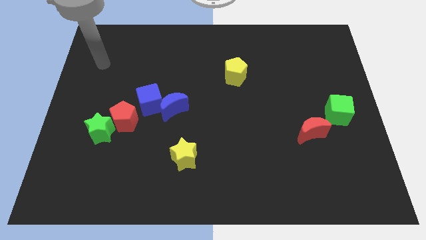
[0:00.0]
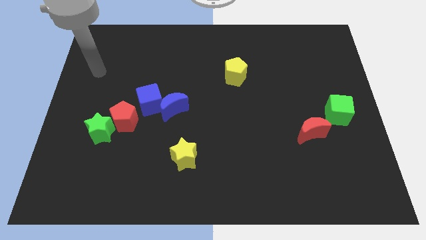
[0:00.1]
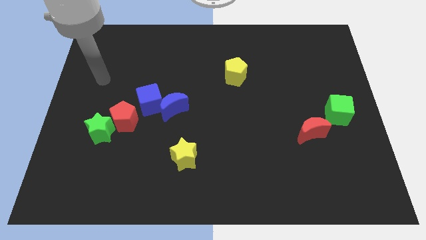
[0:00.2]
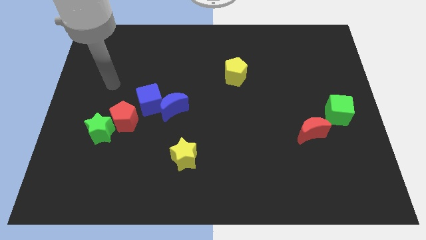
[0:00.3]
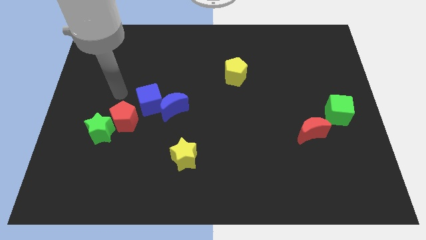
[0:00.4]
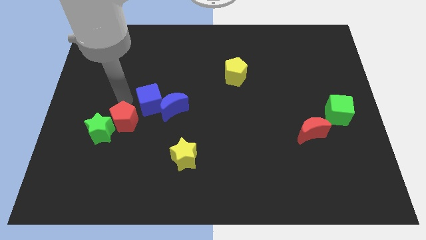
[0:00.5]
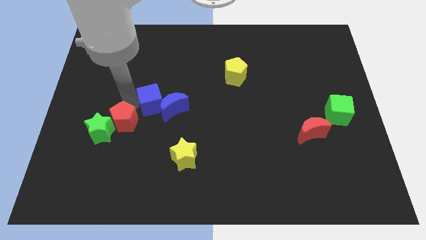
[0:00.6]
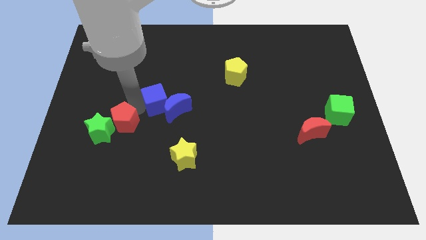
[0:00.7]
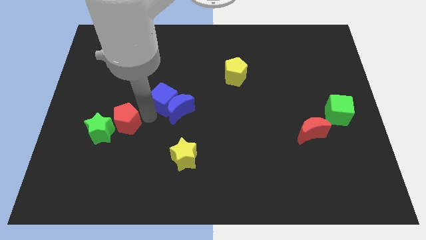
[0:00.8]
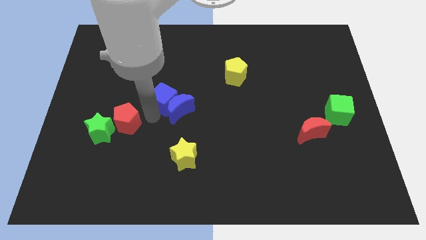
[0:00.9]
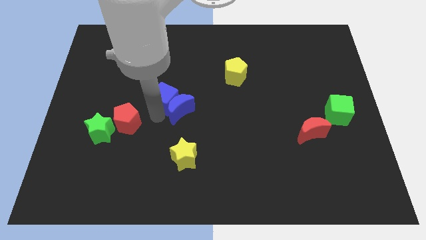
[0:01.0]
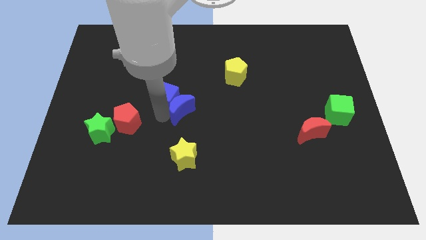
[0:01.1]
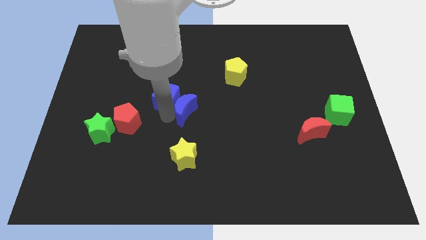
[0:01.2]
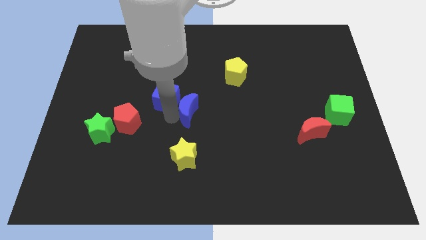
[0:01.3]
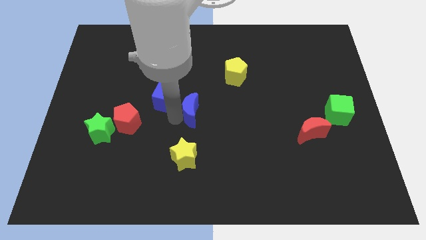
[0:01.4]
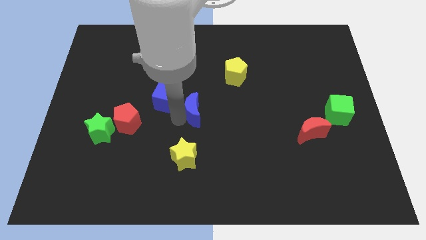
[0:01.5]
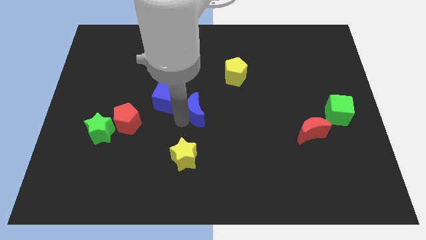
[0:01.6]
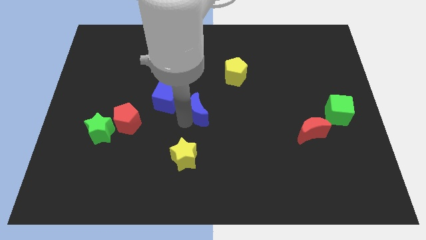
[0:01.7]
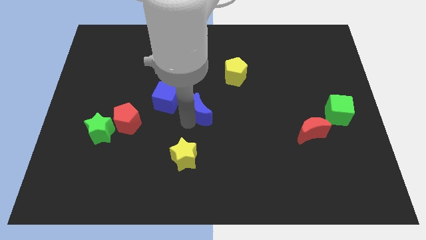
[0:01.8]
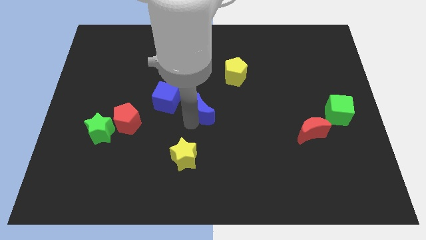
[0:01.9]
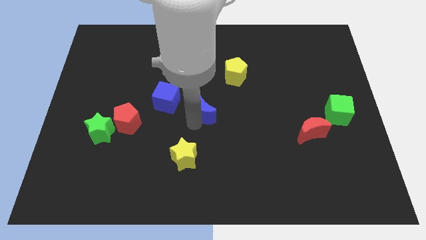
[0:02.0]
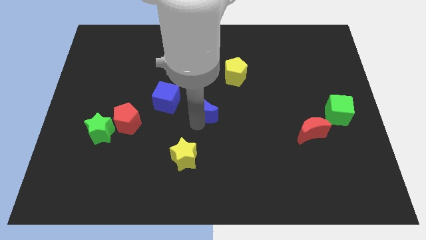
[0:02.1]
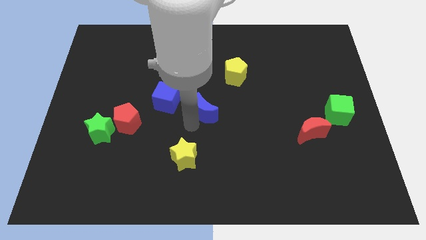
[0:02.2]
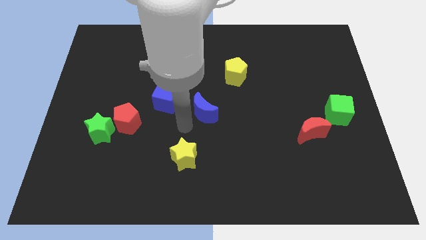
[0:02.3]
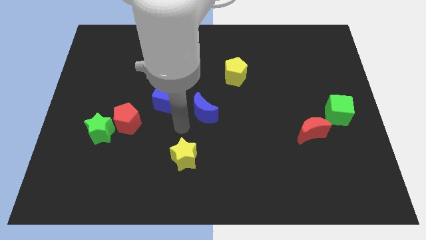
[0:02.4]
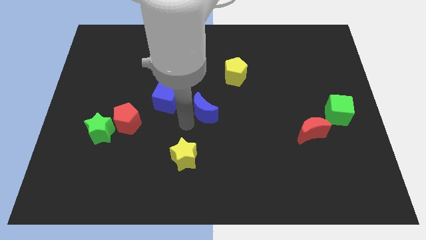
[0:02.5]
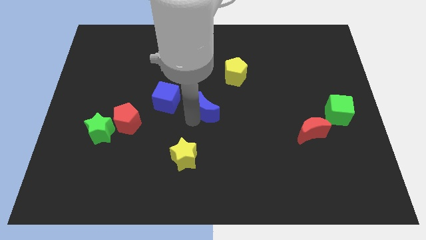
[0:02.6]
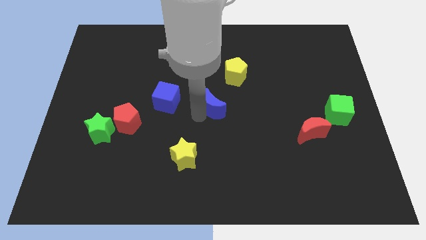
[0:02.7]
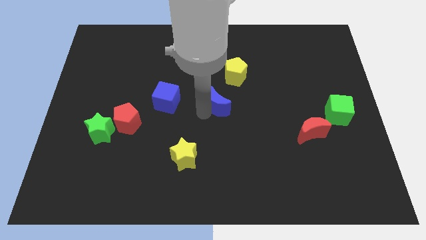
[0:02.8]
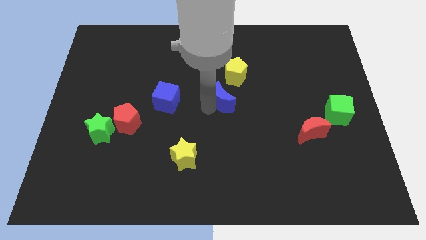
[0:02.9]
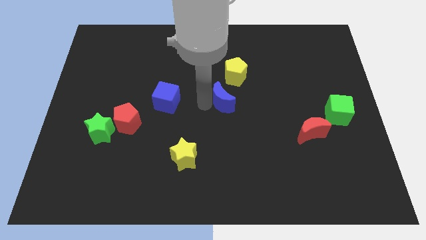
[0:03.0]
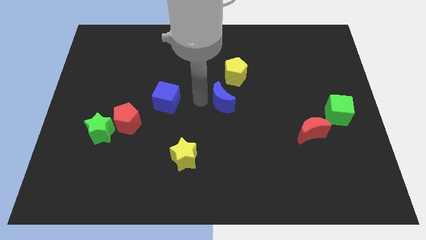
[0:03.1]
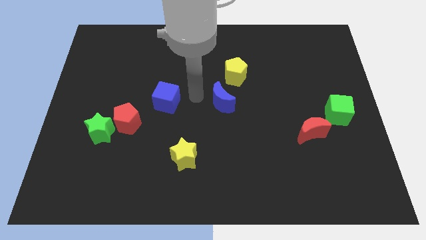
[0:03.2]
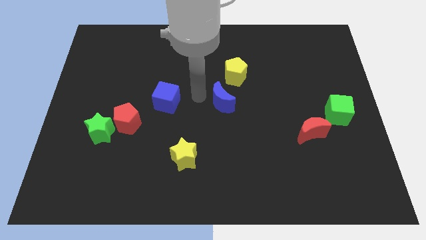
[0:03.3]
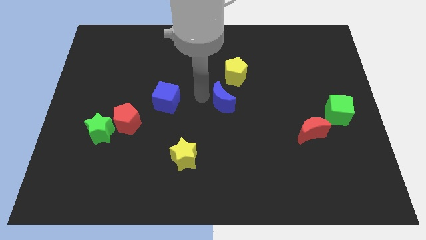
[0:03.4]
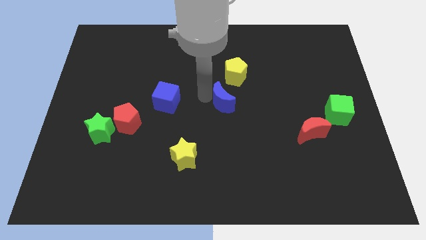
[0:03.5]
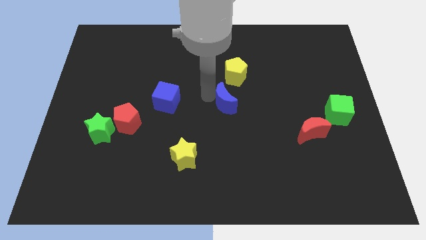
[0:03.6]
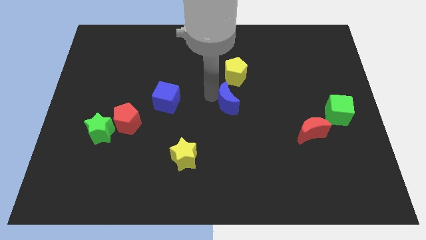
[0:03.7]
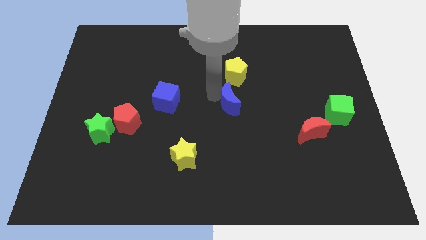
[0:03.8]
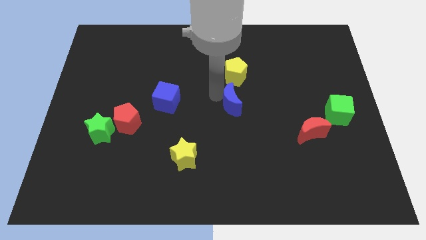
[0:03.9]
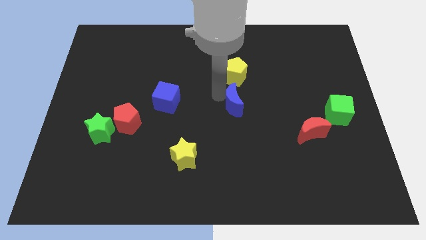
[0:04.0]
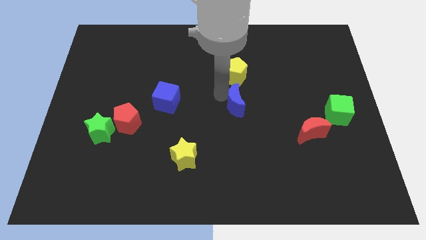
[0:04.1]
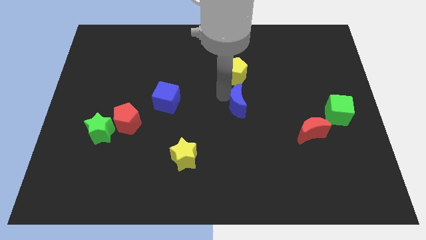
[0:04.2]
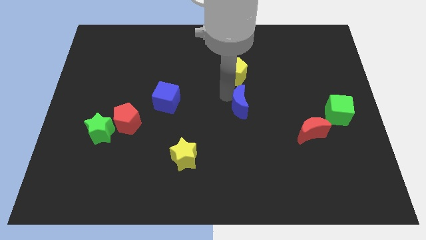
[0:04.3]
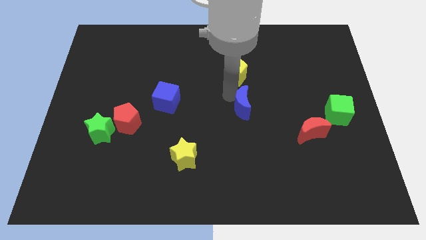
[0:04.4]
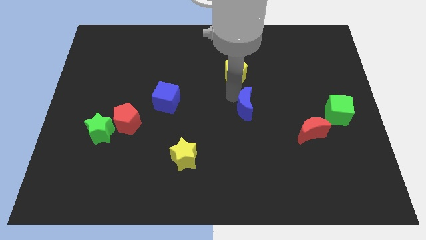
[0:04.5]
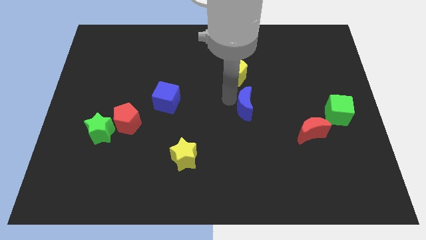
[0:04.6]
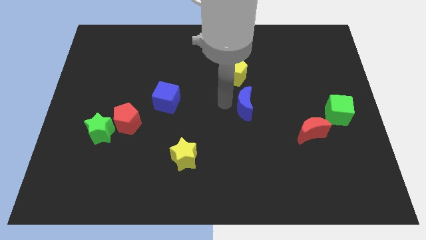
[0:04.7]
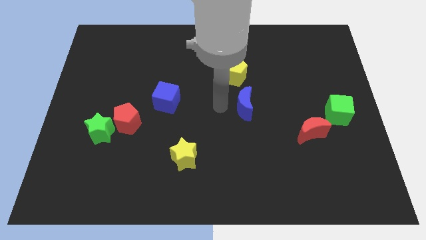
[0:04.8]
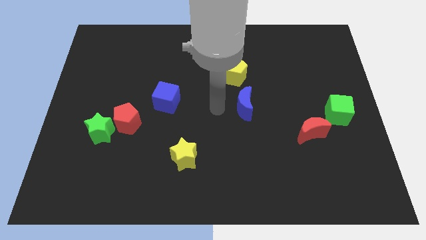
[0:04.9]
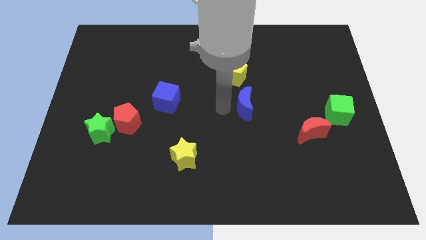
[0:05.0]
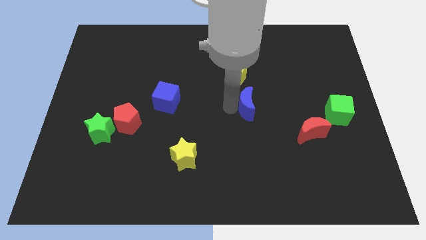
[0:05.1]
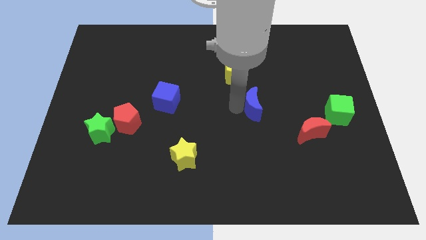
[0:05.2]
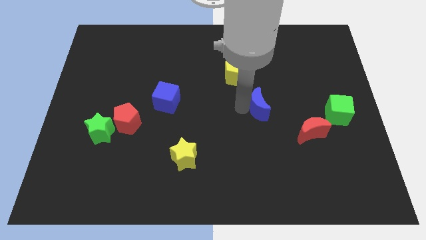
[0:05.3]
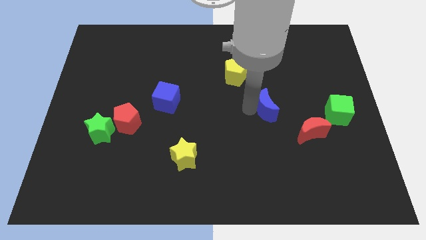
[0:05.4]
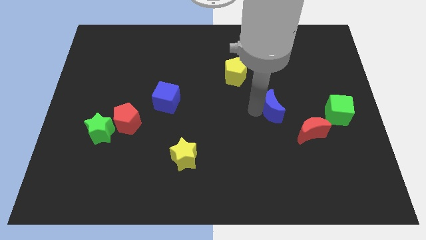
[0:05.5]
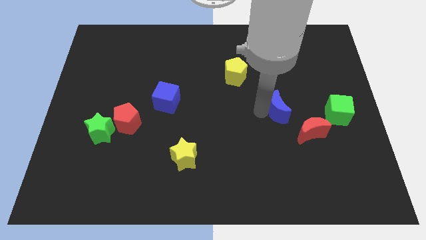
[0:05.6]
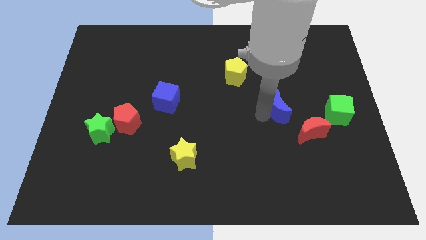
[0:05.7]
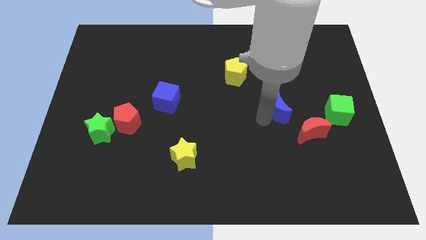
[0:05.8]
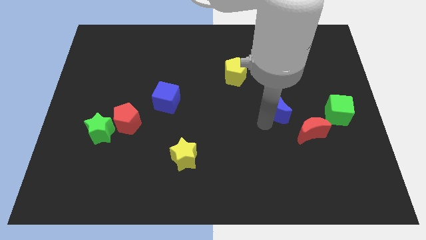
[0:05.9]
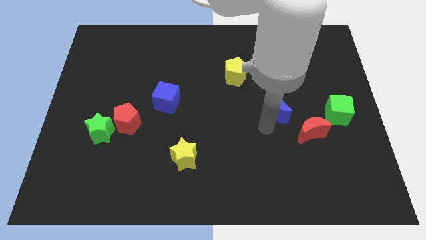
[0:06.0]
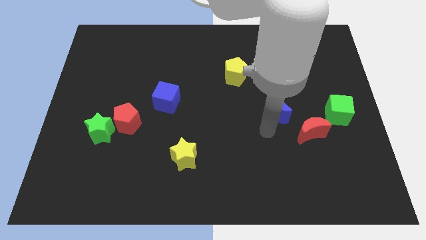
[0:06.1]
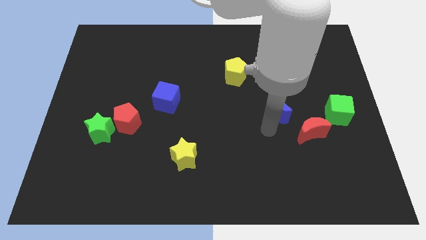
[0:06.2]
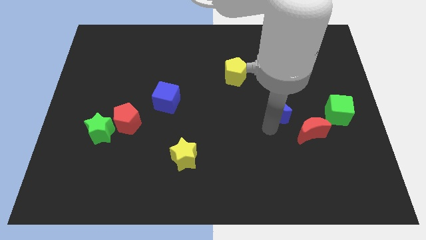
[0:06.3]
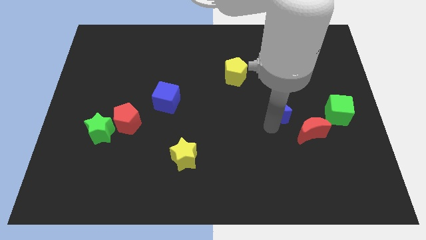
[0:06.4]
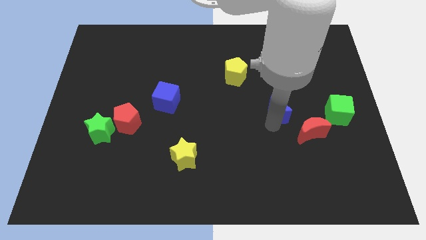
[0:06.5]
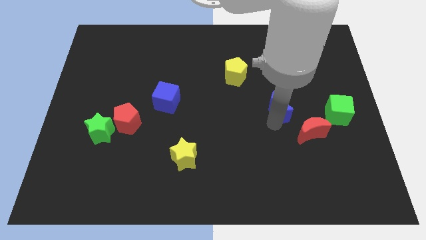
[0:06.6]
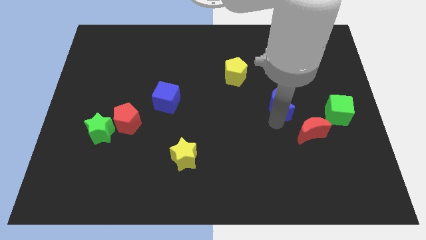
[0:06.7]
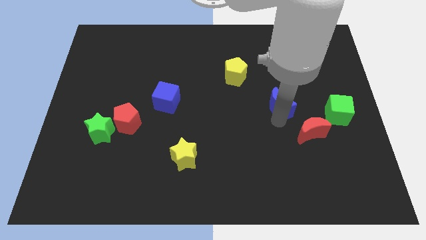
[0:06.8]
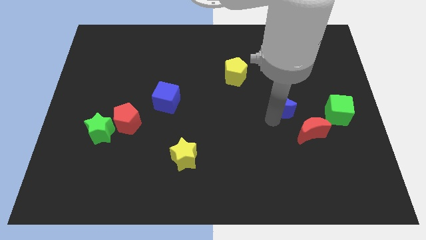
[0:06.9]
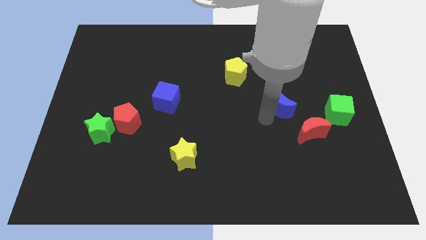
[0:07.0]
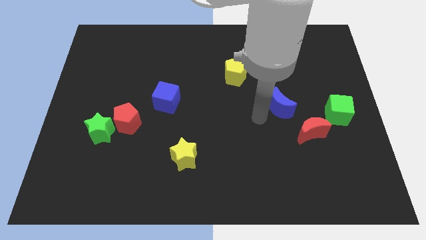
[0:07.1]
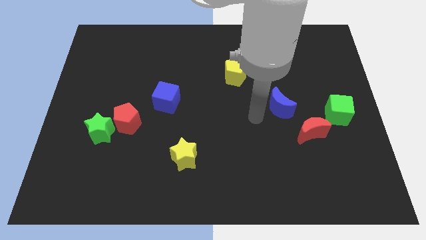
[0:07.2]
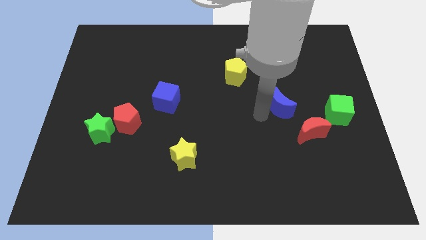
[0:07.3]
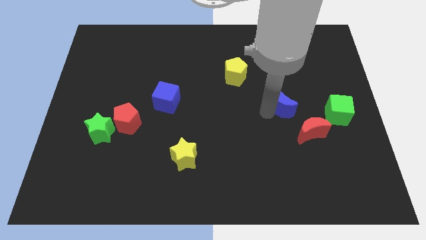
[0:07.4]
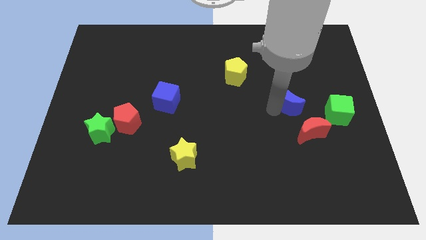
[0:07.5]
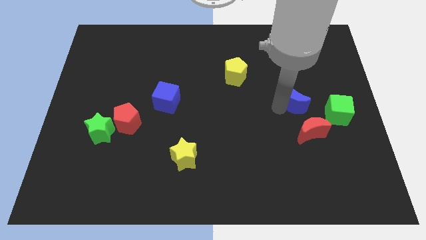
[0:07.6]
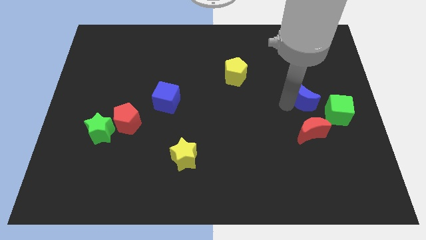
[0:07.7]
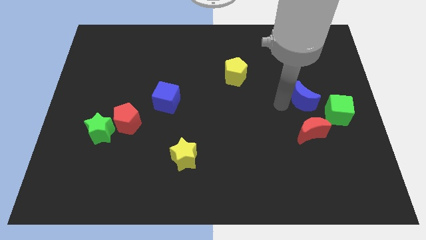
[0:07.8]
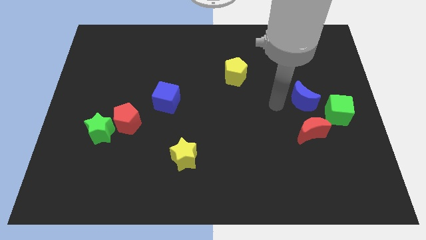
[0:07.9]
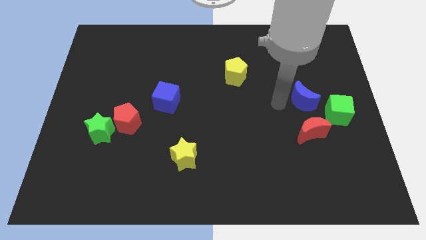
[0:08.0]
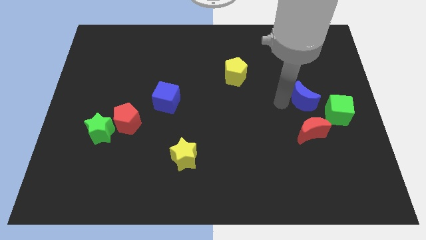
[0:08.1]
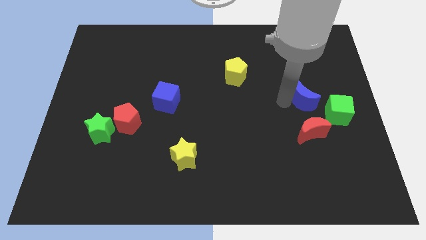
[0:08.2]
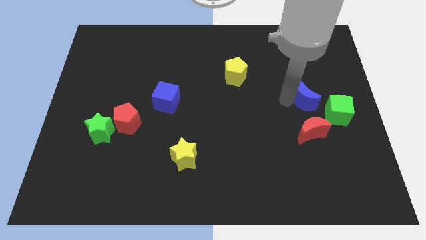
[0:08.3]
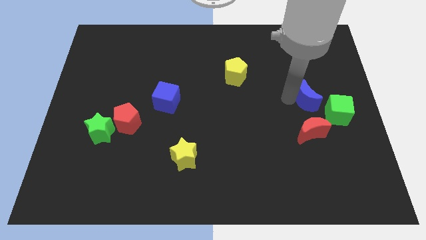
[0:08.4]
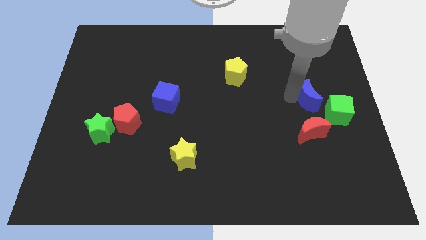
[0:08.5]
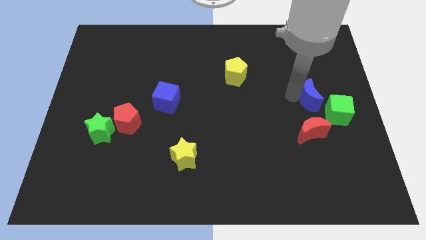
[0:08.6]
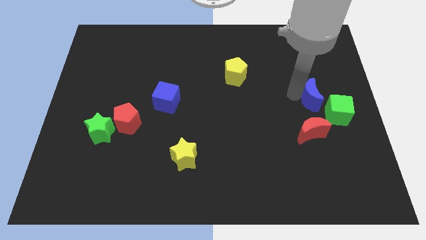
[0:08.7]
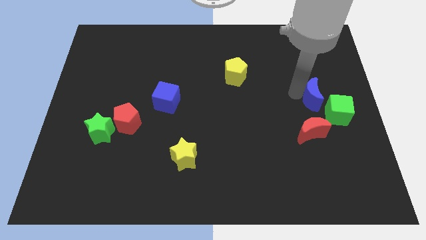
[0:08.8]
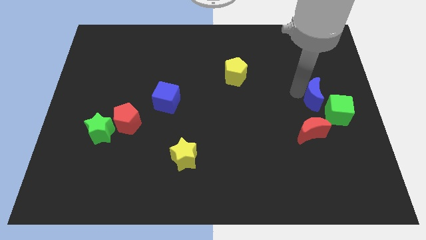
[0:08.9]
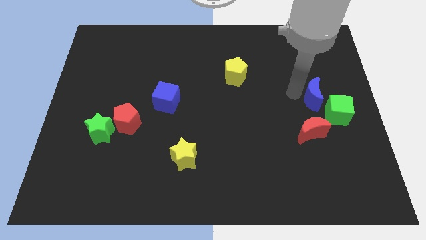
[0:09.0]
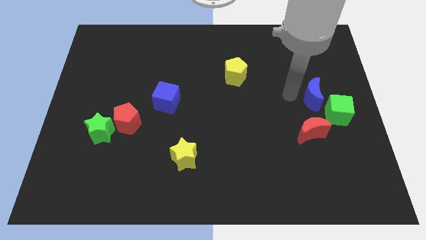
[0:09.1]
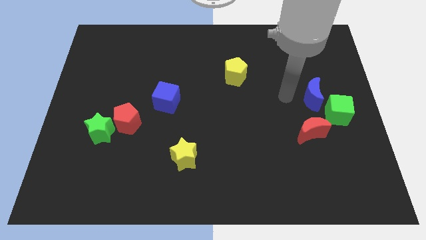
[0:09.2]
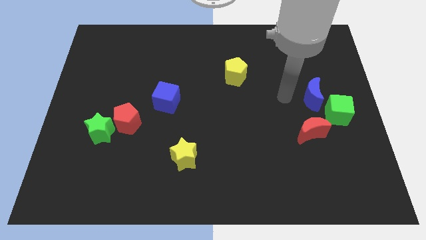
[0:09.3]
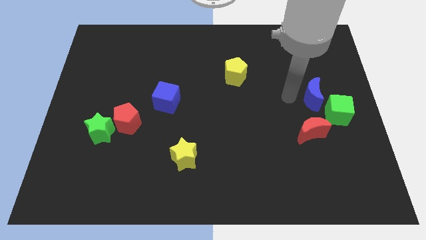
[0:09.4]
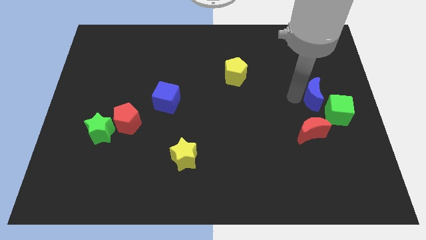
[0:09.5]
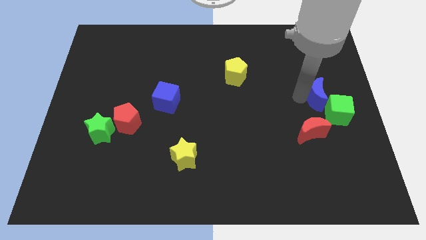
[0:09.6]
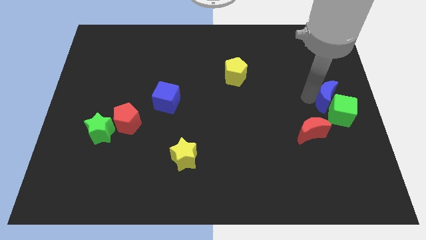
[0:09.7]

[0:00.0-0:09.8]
put the blue moon to the right side of the board
